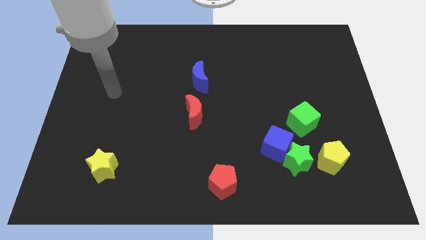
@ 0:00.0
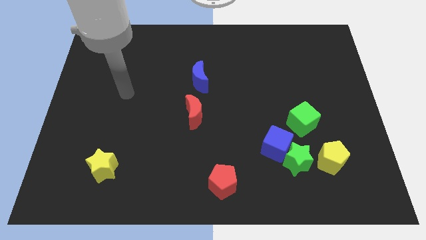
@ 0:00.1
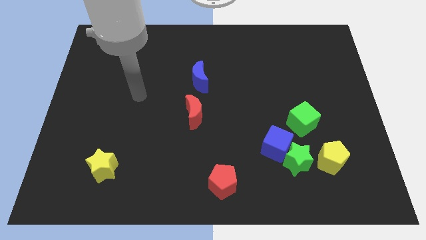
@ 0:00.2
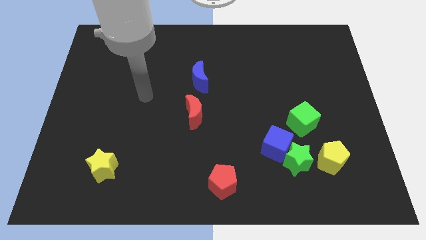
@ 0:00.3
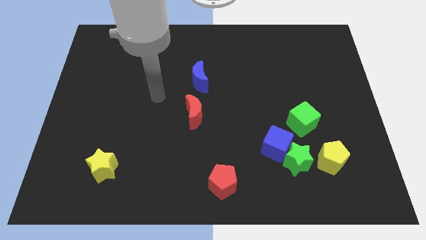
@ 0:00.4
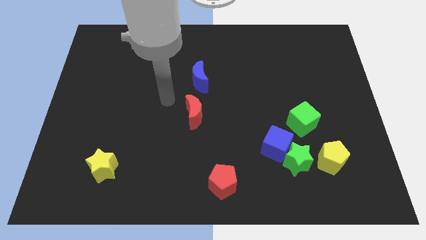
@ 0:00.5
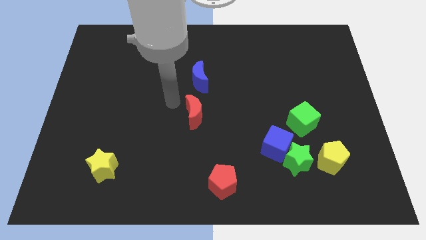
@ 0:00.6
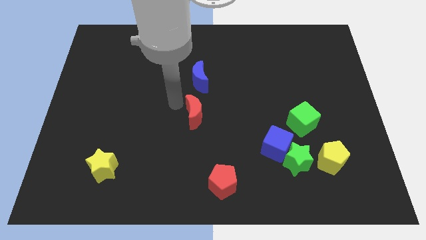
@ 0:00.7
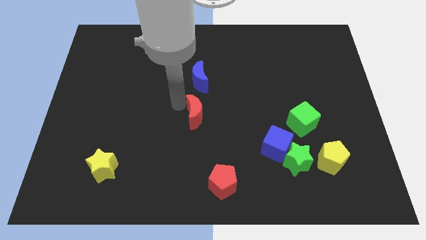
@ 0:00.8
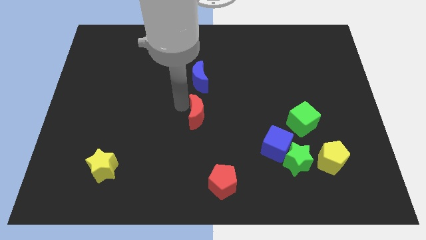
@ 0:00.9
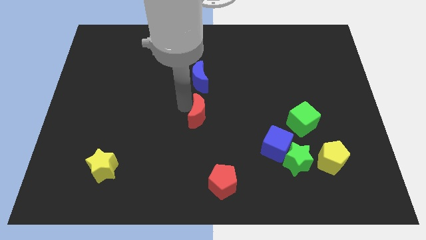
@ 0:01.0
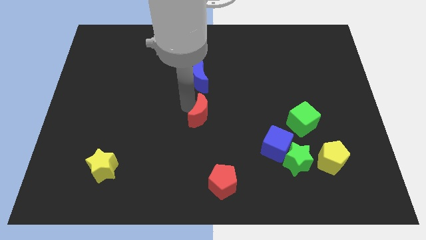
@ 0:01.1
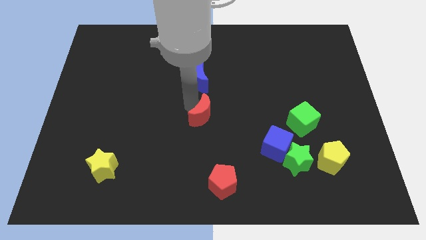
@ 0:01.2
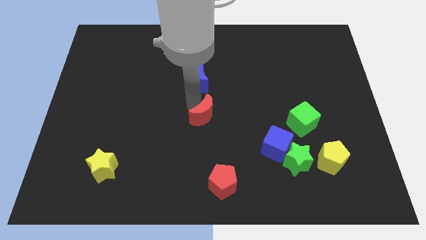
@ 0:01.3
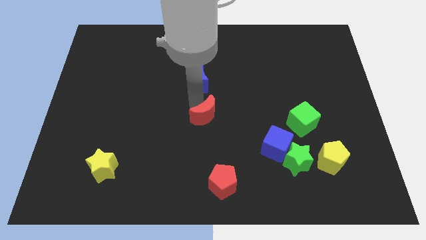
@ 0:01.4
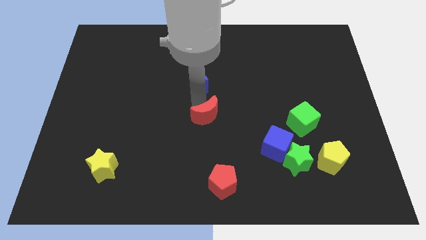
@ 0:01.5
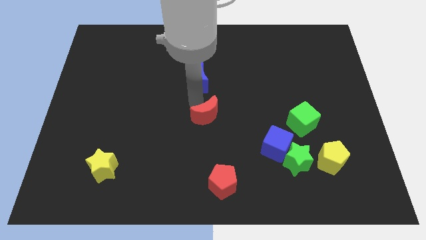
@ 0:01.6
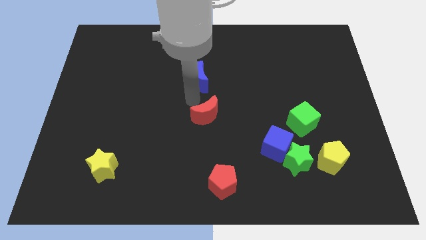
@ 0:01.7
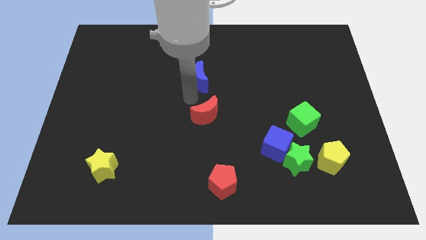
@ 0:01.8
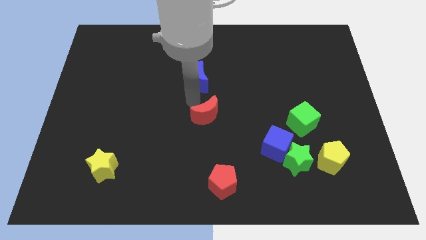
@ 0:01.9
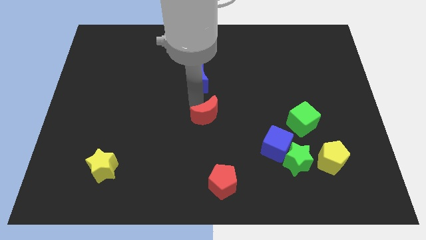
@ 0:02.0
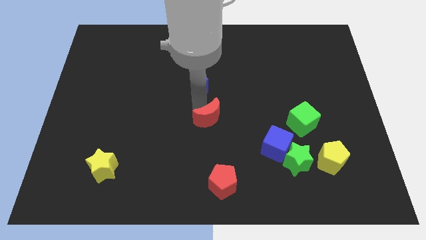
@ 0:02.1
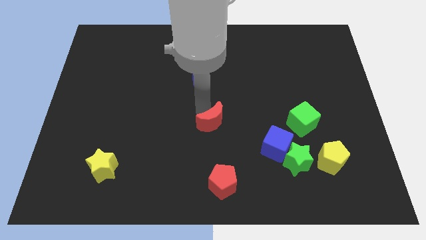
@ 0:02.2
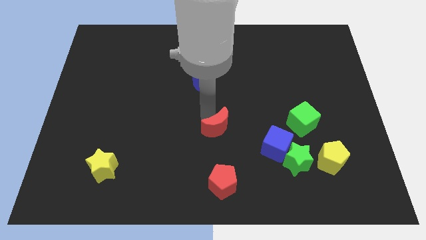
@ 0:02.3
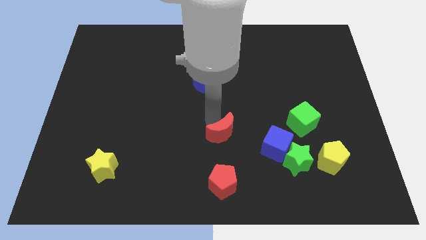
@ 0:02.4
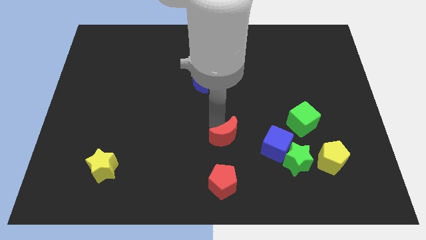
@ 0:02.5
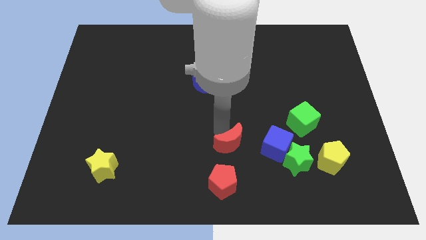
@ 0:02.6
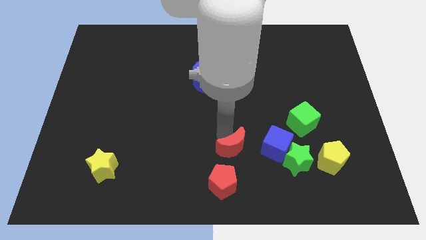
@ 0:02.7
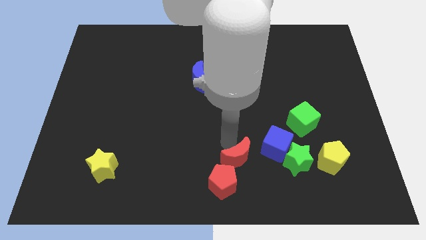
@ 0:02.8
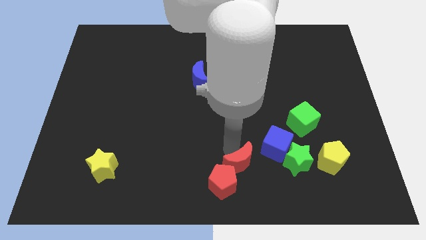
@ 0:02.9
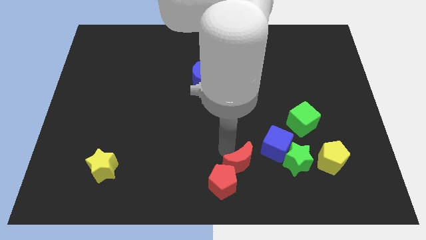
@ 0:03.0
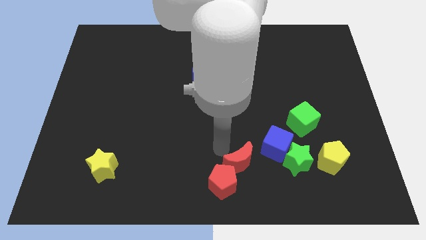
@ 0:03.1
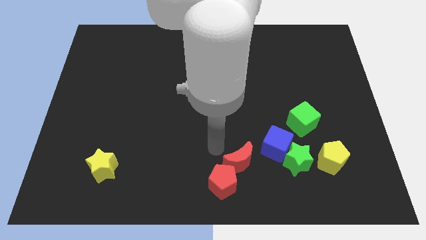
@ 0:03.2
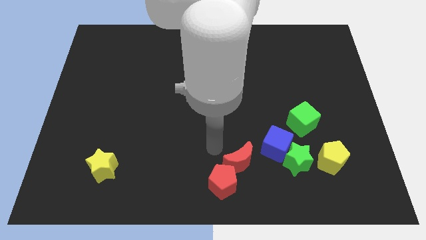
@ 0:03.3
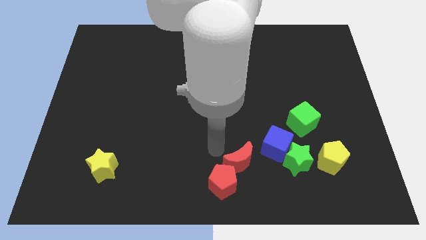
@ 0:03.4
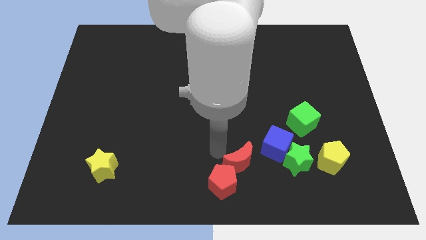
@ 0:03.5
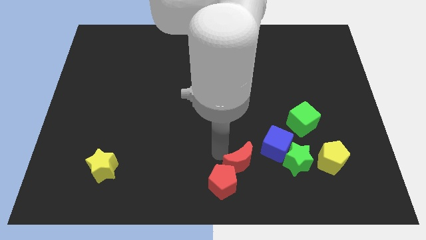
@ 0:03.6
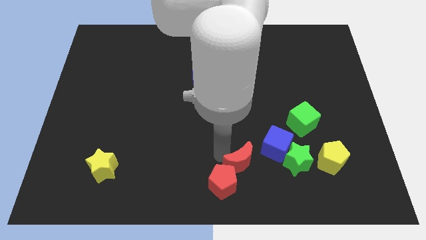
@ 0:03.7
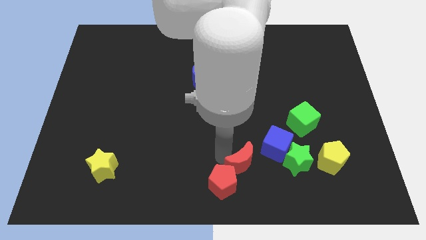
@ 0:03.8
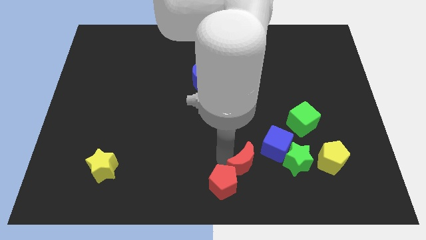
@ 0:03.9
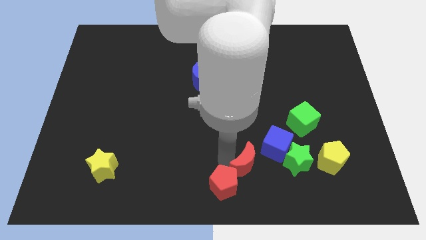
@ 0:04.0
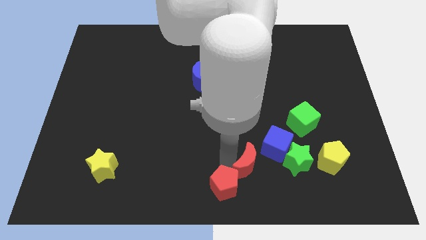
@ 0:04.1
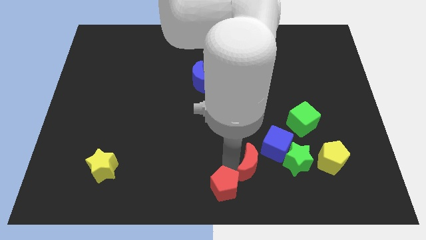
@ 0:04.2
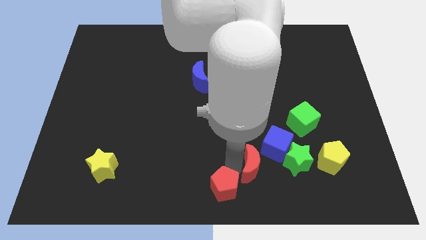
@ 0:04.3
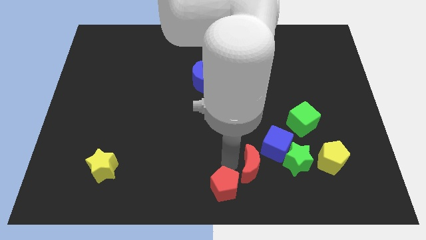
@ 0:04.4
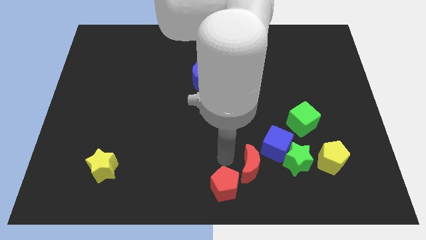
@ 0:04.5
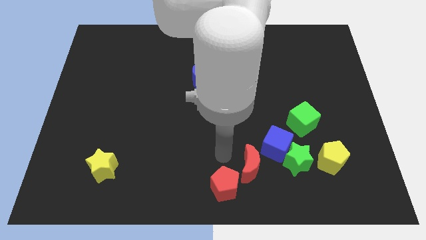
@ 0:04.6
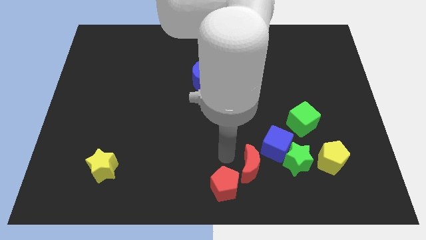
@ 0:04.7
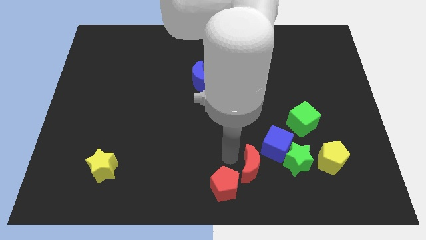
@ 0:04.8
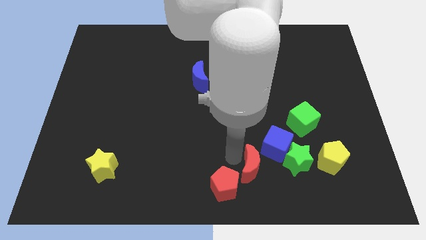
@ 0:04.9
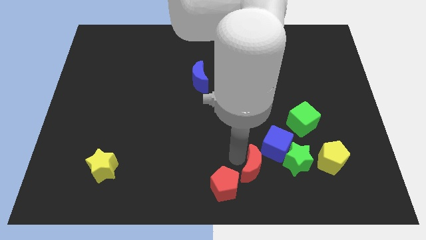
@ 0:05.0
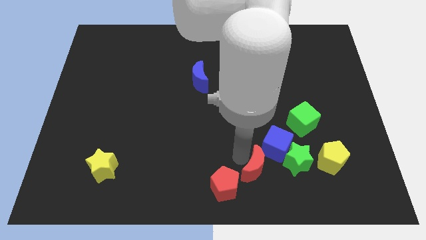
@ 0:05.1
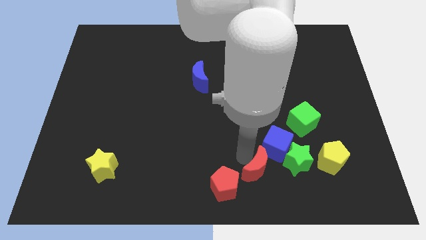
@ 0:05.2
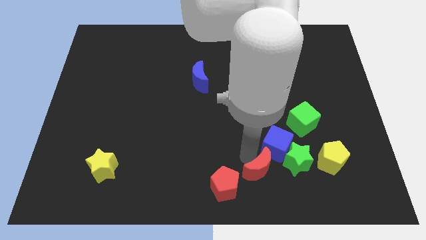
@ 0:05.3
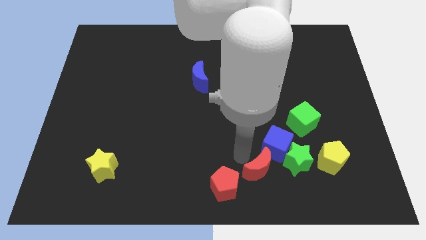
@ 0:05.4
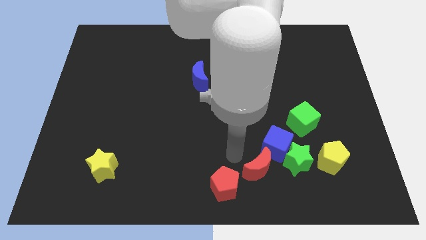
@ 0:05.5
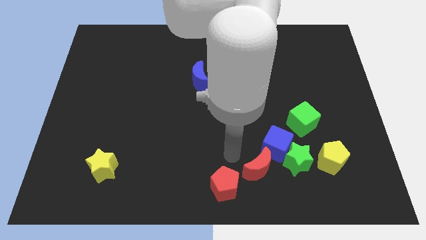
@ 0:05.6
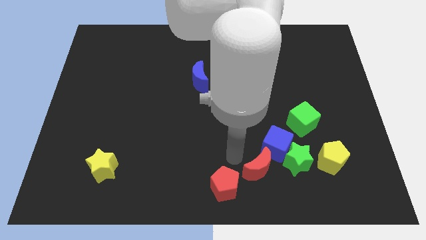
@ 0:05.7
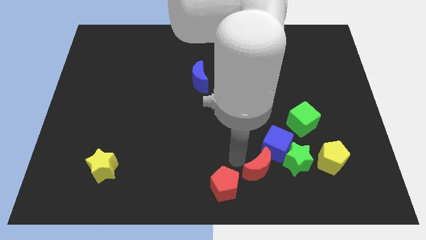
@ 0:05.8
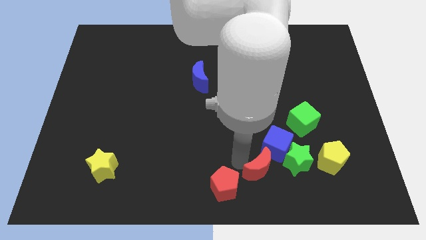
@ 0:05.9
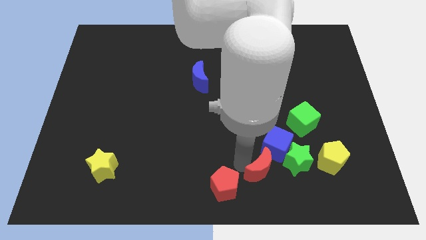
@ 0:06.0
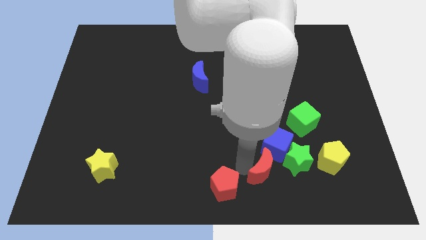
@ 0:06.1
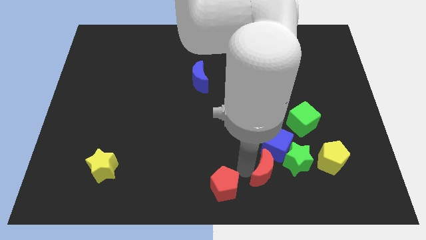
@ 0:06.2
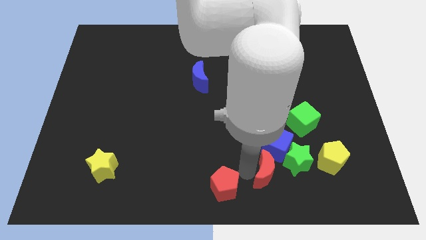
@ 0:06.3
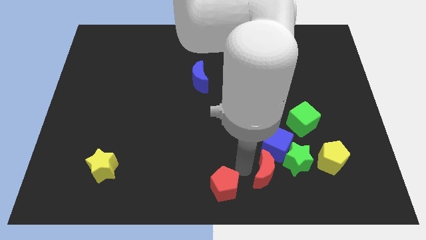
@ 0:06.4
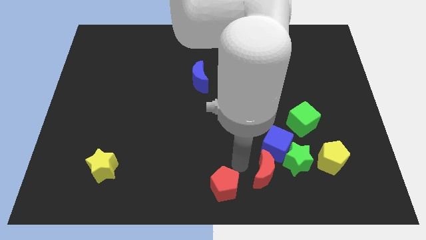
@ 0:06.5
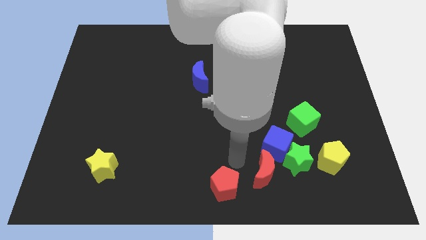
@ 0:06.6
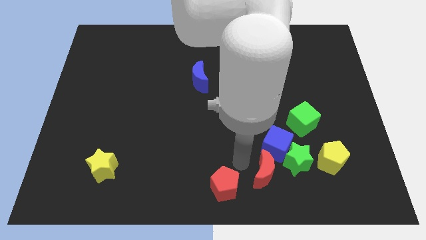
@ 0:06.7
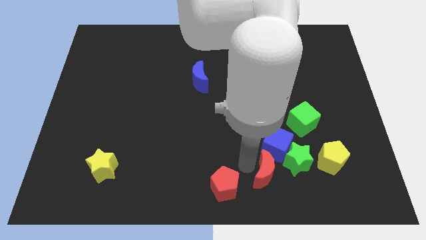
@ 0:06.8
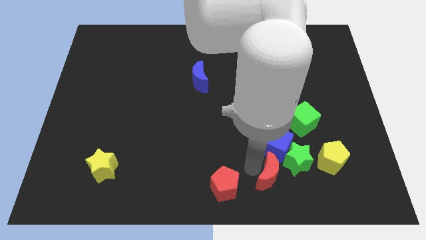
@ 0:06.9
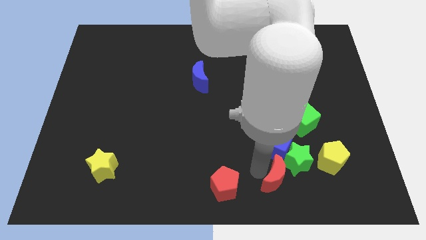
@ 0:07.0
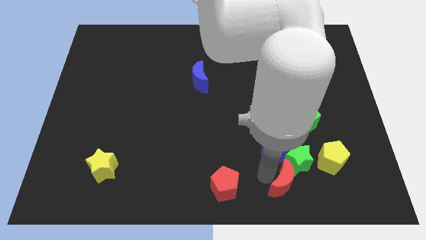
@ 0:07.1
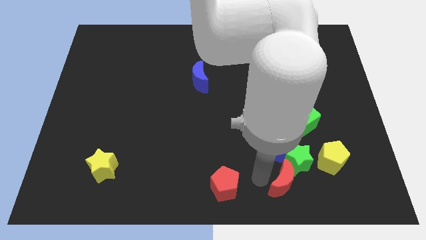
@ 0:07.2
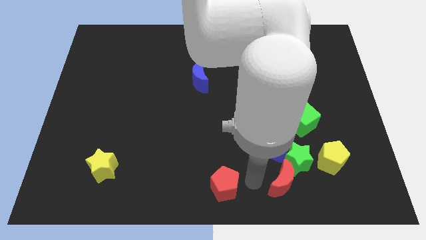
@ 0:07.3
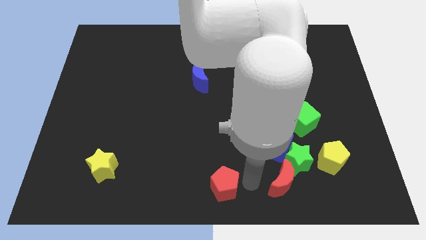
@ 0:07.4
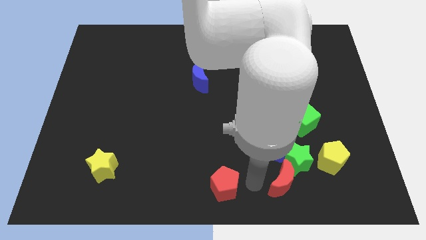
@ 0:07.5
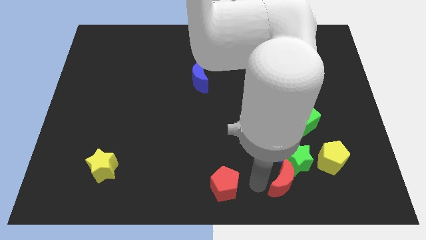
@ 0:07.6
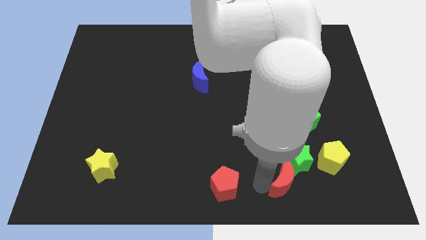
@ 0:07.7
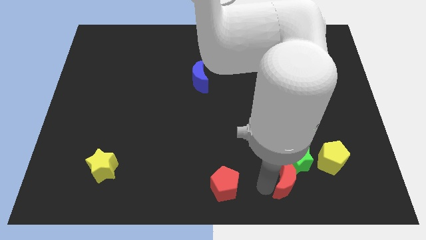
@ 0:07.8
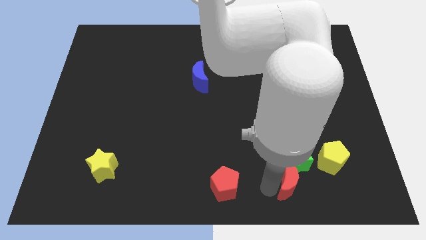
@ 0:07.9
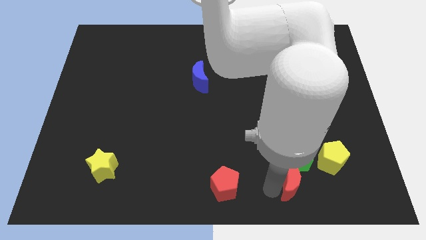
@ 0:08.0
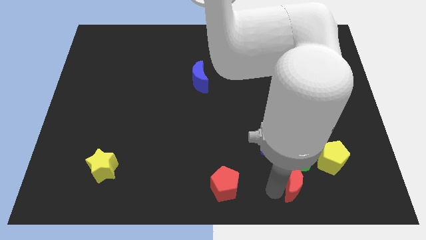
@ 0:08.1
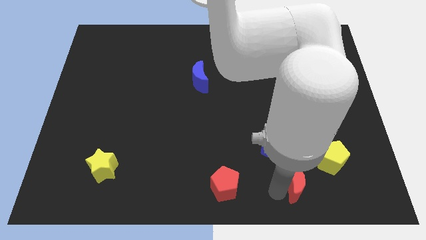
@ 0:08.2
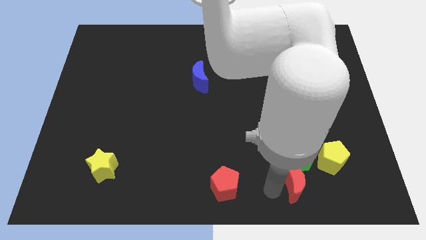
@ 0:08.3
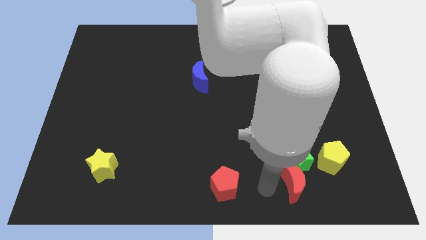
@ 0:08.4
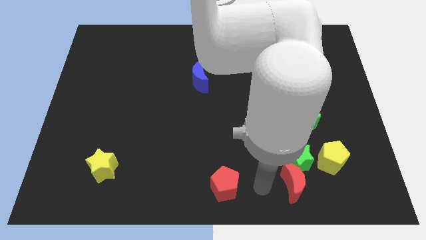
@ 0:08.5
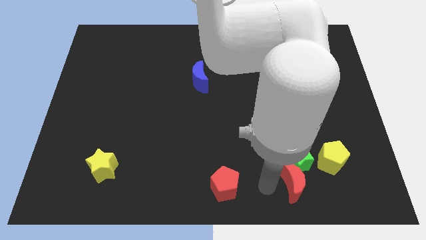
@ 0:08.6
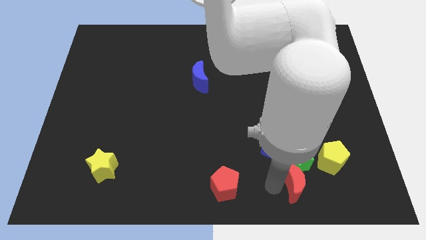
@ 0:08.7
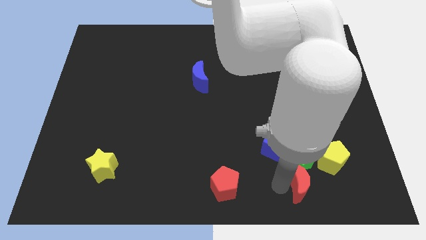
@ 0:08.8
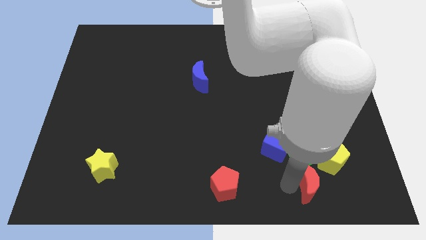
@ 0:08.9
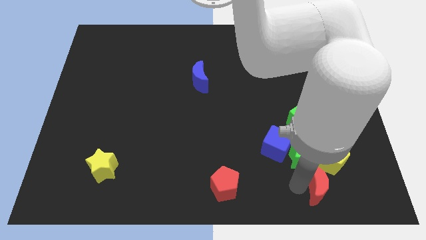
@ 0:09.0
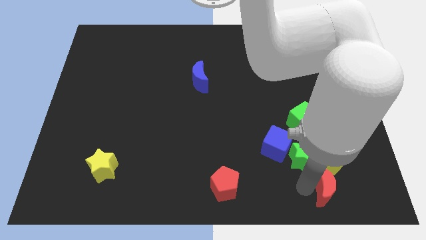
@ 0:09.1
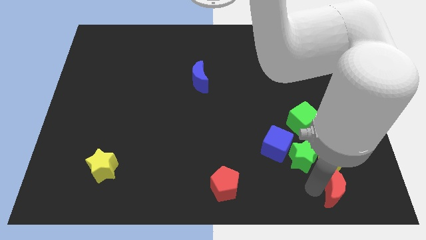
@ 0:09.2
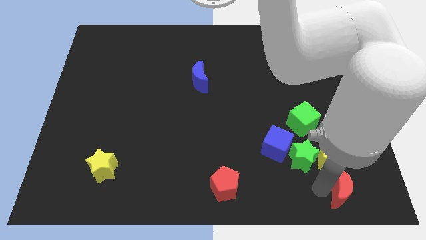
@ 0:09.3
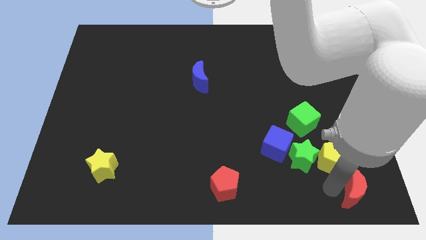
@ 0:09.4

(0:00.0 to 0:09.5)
slide the red moon to the lower right corner
